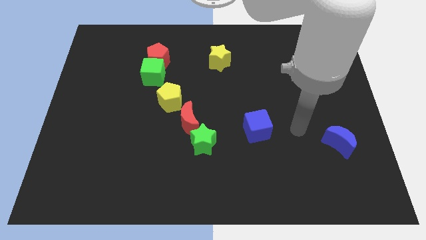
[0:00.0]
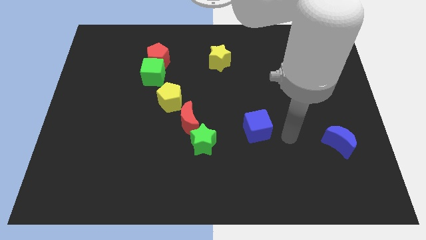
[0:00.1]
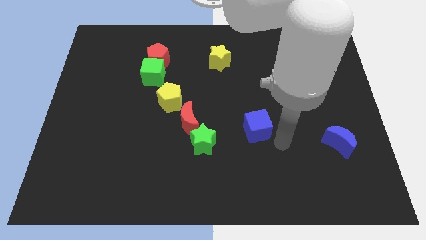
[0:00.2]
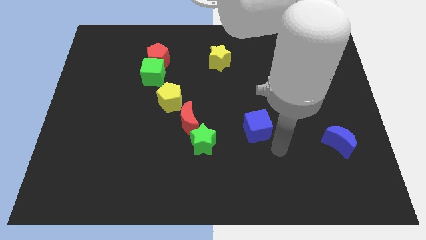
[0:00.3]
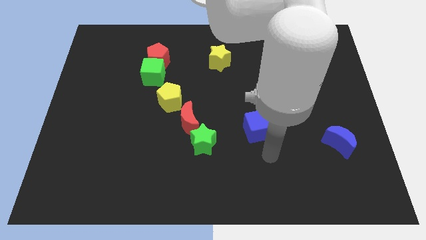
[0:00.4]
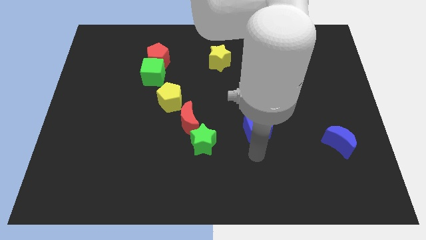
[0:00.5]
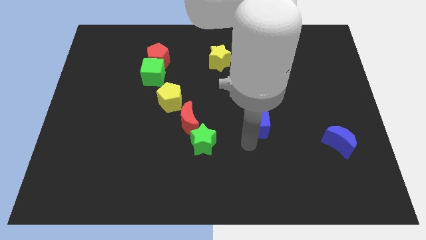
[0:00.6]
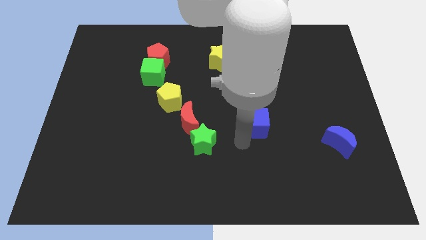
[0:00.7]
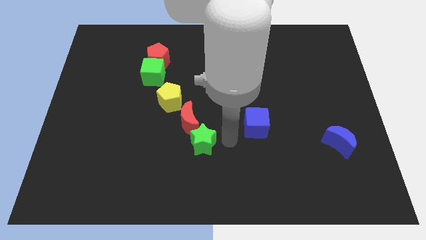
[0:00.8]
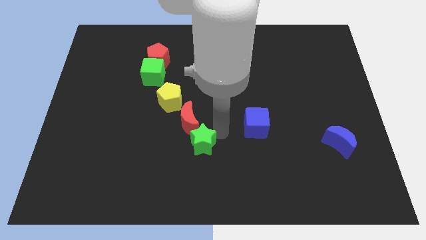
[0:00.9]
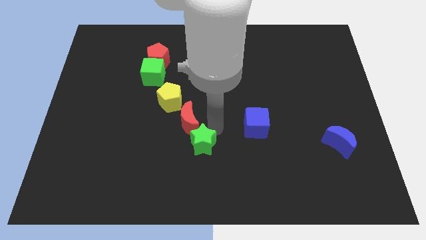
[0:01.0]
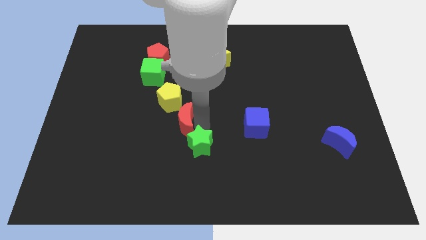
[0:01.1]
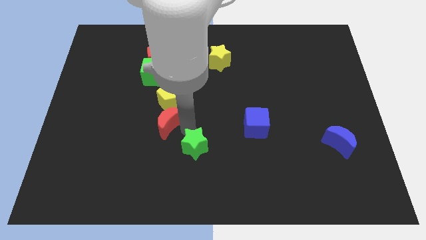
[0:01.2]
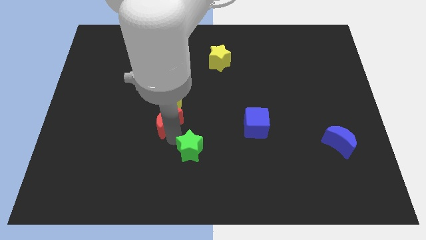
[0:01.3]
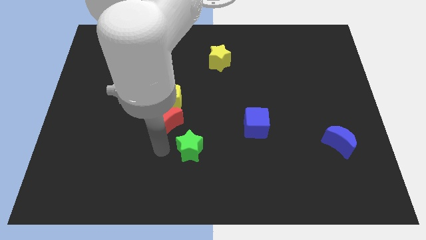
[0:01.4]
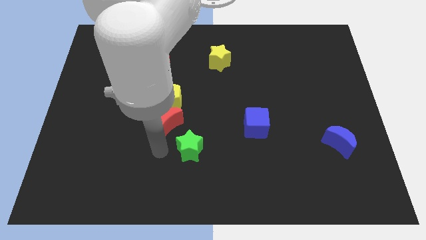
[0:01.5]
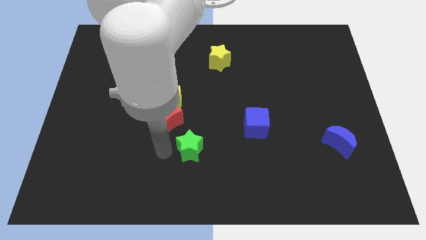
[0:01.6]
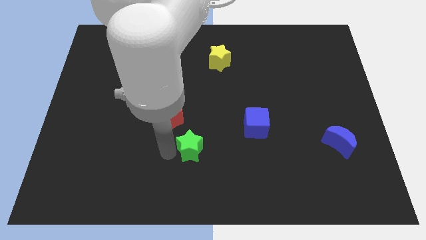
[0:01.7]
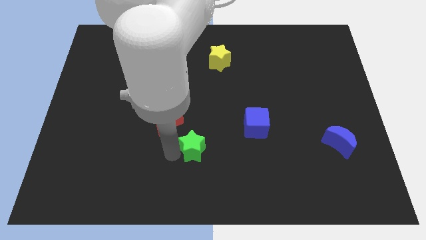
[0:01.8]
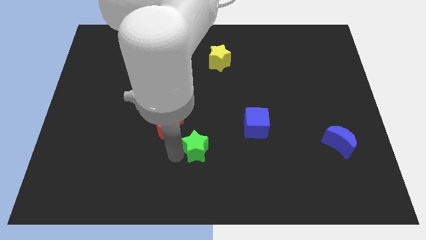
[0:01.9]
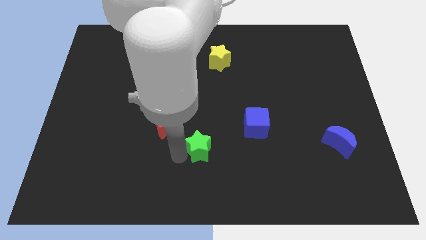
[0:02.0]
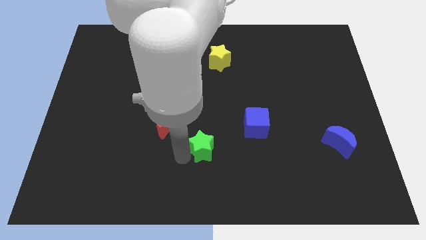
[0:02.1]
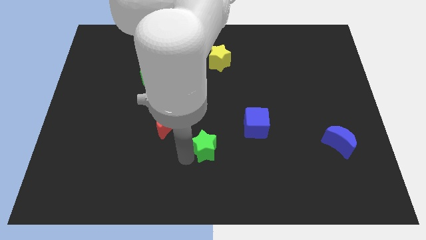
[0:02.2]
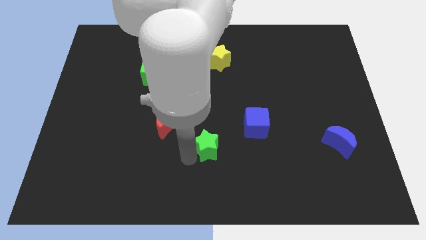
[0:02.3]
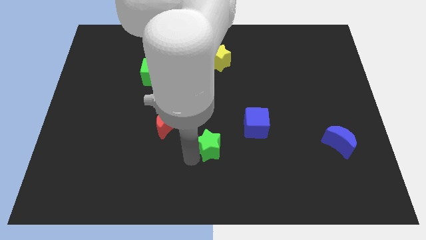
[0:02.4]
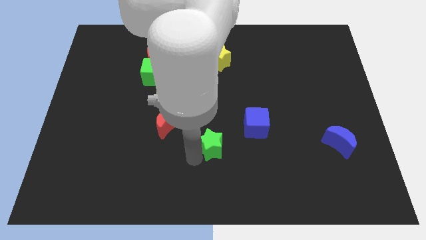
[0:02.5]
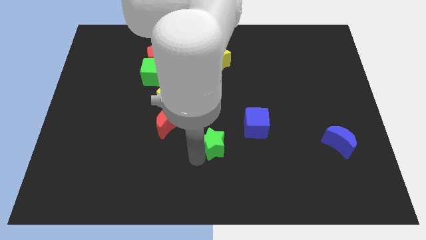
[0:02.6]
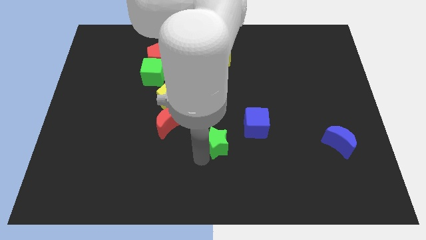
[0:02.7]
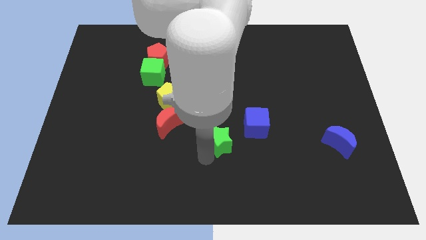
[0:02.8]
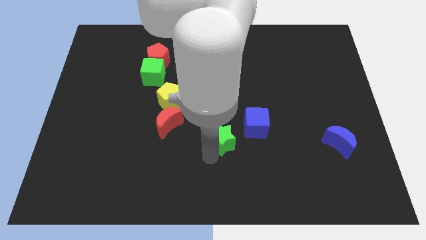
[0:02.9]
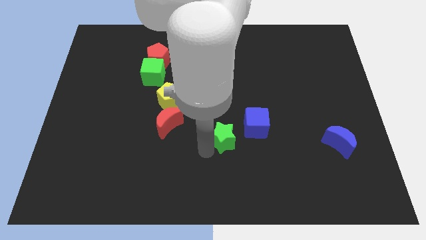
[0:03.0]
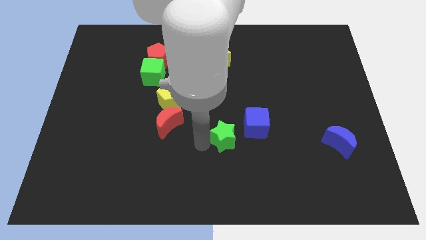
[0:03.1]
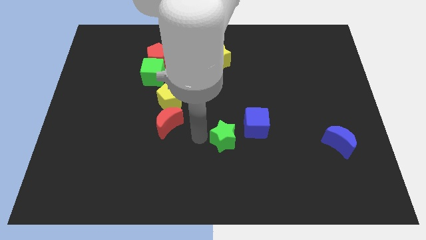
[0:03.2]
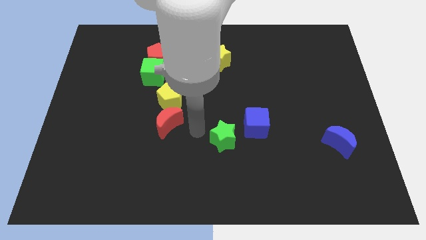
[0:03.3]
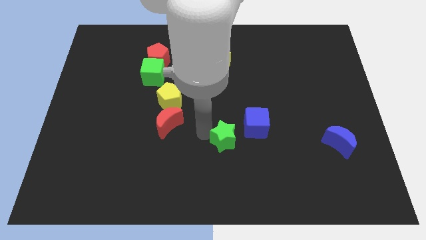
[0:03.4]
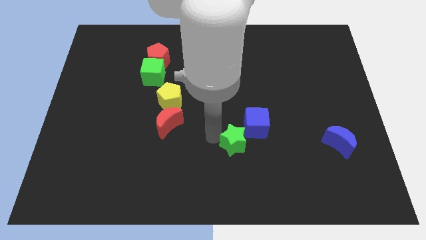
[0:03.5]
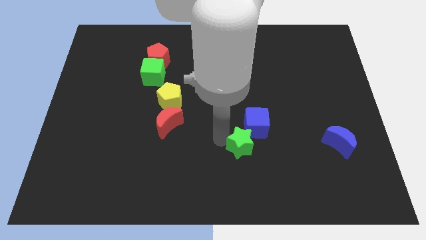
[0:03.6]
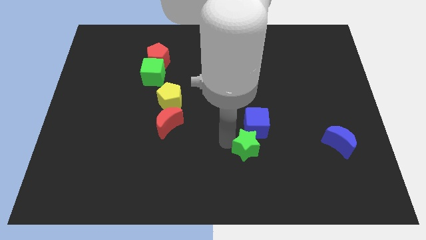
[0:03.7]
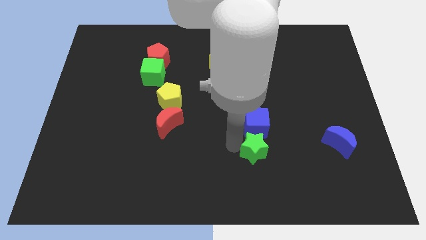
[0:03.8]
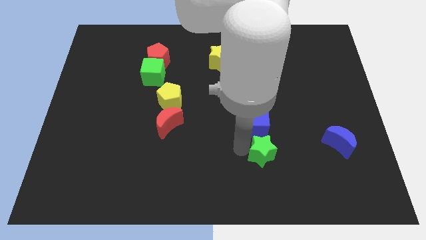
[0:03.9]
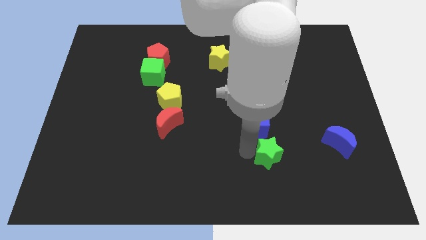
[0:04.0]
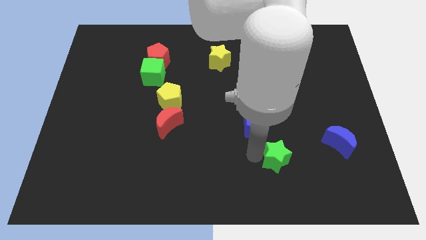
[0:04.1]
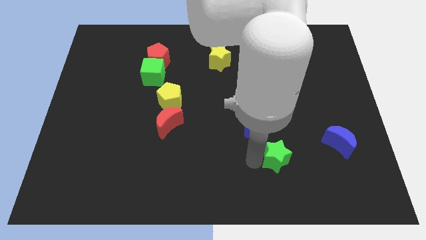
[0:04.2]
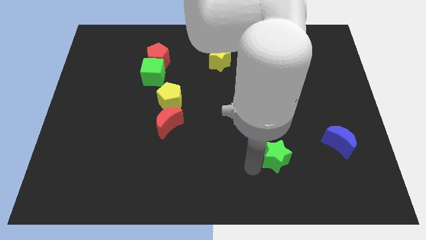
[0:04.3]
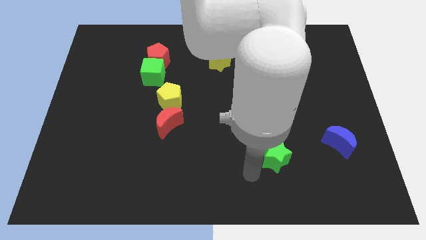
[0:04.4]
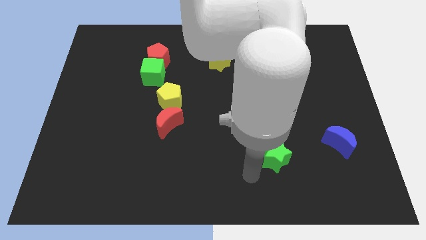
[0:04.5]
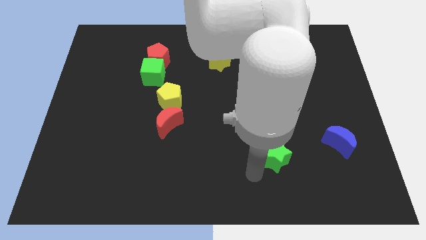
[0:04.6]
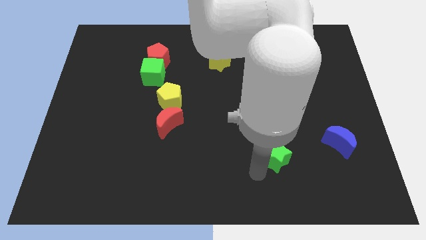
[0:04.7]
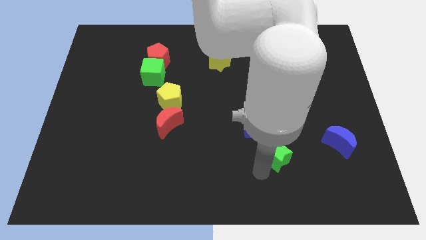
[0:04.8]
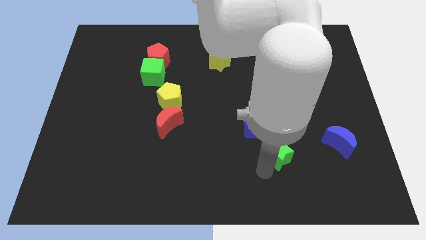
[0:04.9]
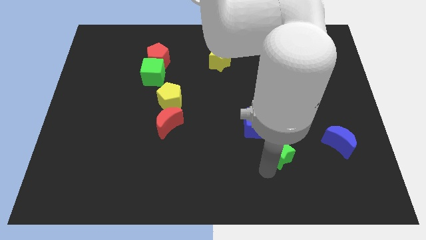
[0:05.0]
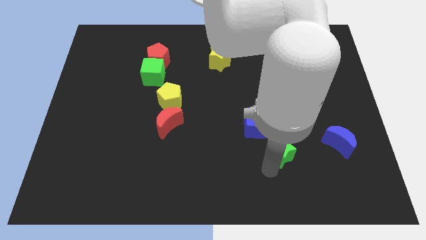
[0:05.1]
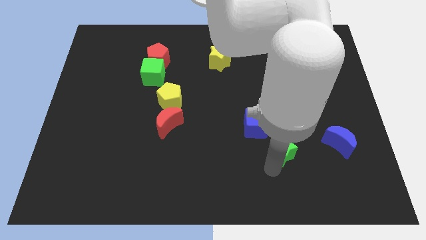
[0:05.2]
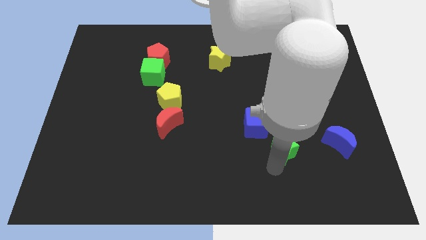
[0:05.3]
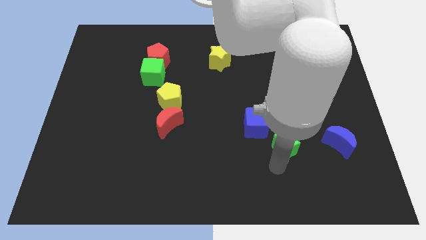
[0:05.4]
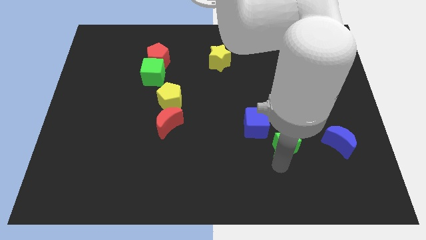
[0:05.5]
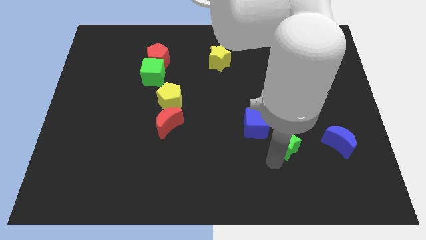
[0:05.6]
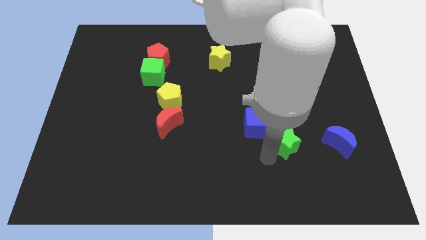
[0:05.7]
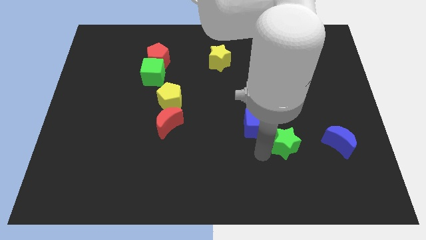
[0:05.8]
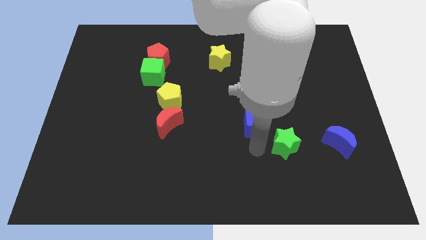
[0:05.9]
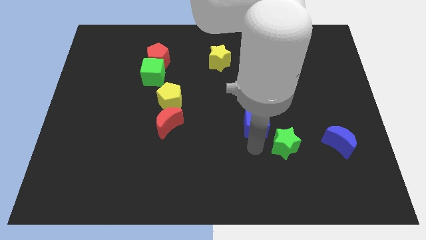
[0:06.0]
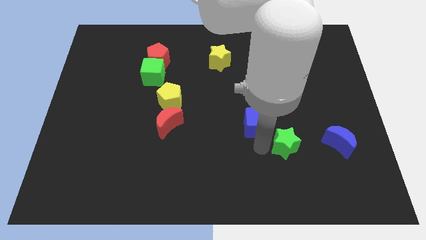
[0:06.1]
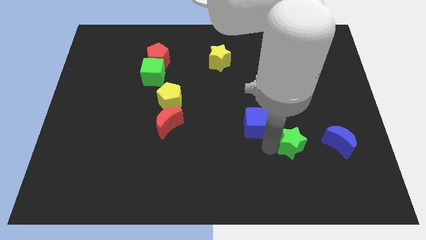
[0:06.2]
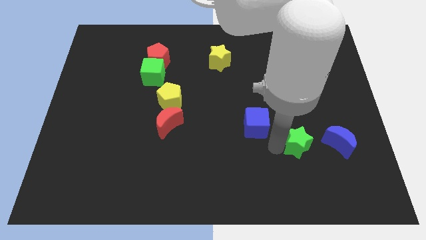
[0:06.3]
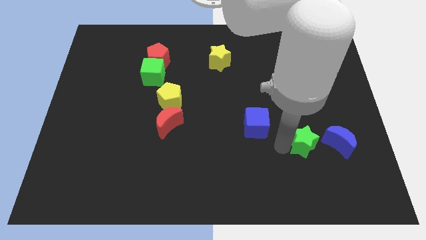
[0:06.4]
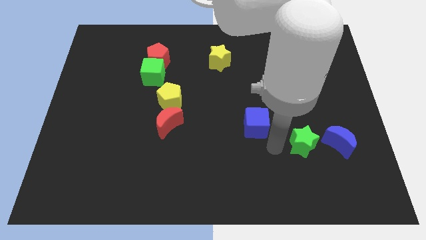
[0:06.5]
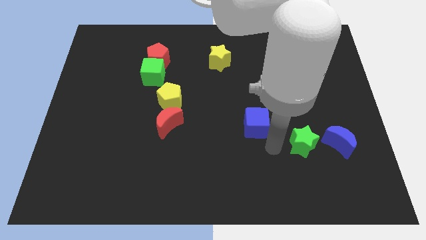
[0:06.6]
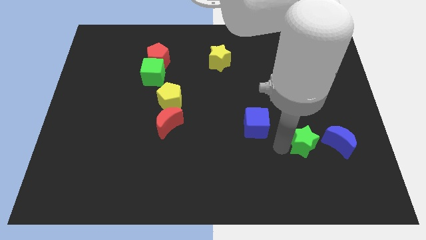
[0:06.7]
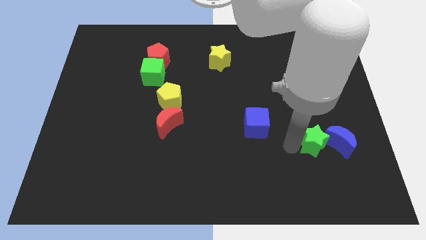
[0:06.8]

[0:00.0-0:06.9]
put the green star towards the blue moon

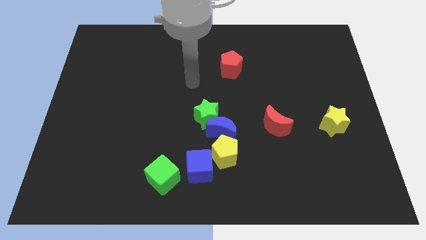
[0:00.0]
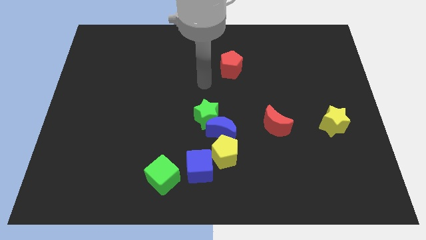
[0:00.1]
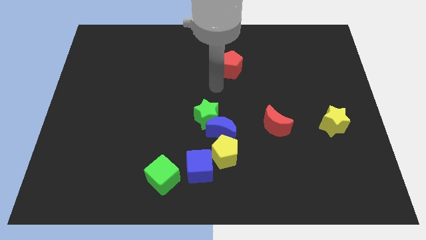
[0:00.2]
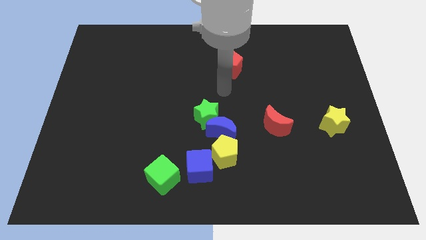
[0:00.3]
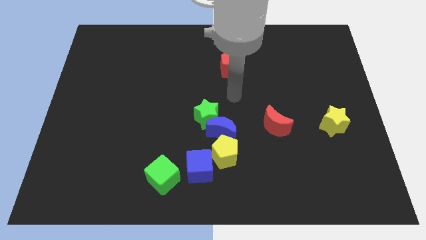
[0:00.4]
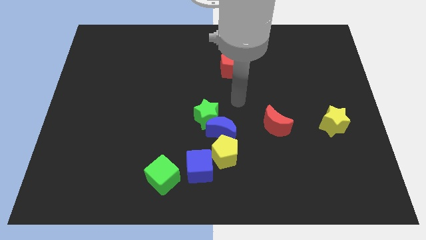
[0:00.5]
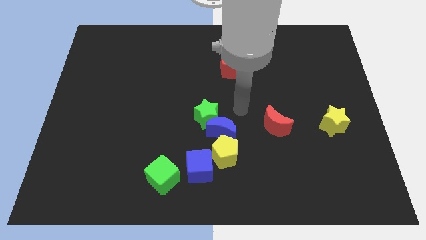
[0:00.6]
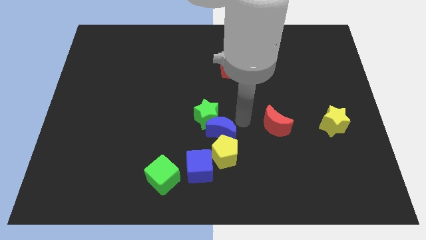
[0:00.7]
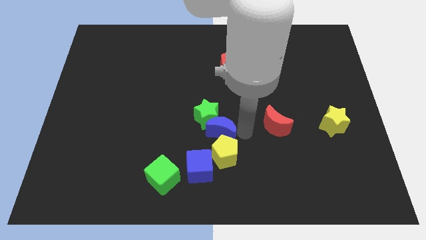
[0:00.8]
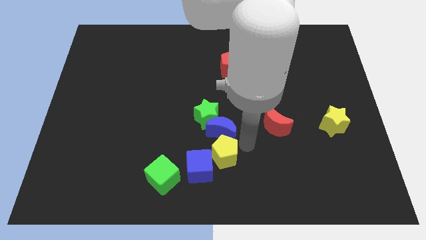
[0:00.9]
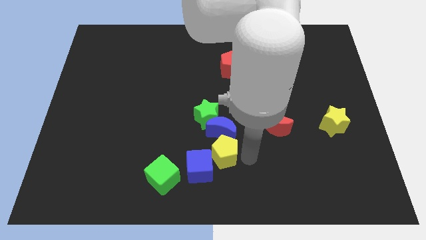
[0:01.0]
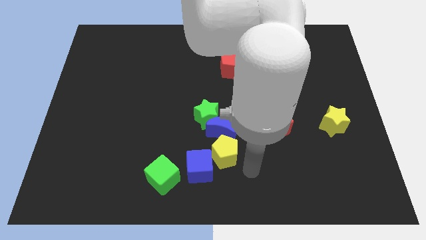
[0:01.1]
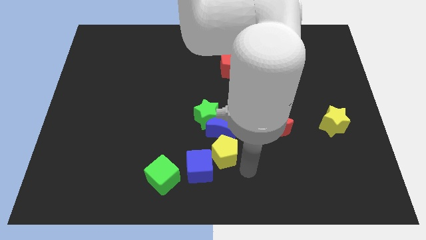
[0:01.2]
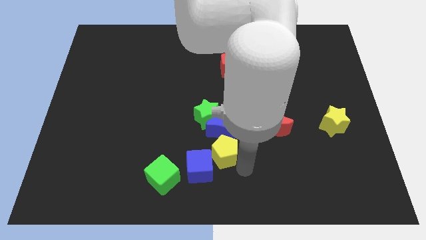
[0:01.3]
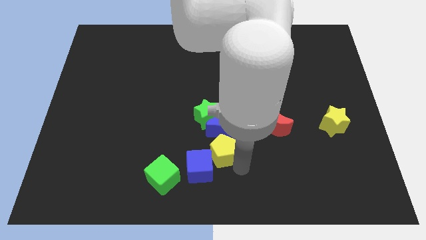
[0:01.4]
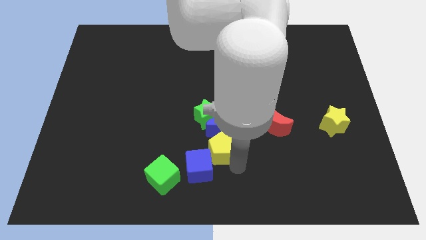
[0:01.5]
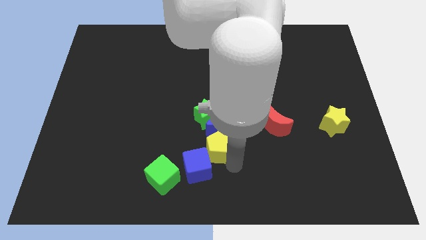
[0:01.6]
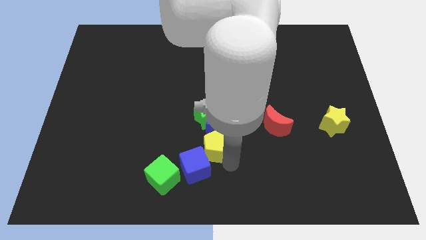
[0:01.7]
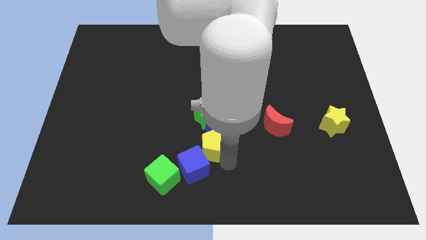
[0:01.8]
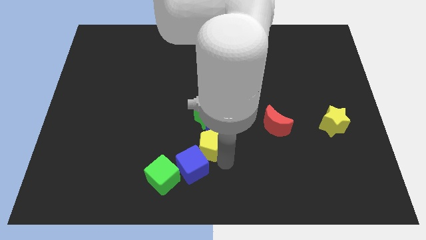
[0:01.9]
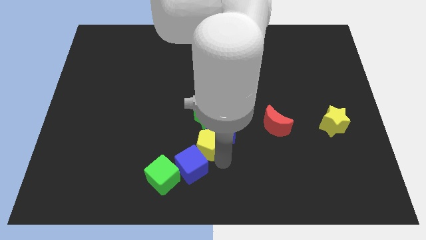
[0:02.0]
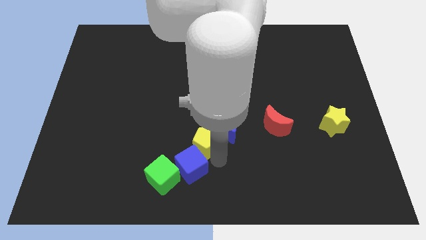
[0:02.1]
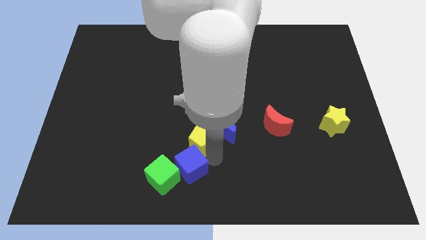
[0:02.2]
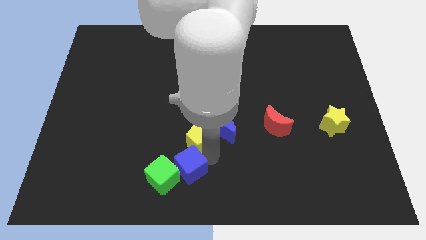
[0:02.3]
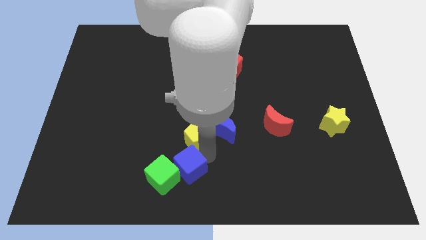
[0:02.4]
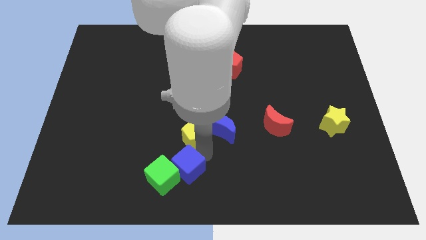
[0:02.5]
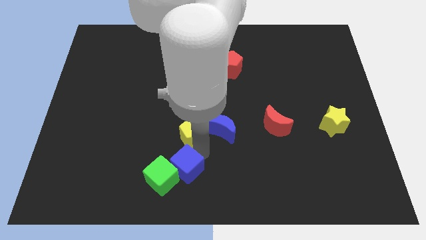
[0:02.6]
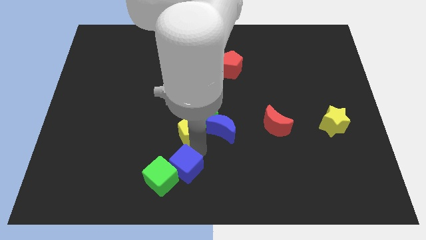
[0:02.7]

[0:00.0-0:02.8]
put the yellow pentagon close to the green star
